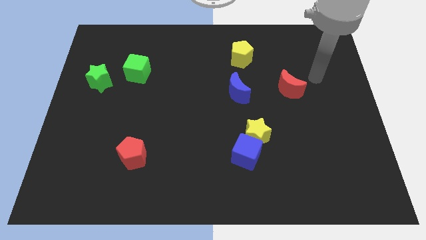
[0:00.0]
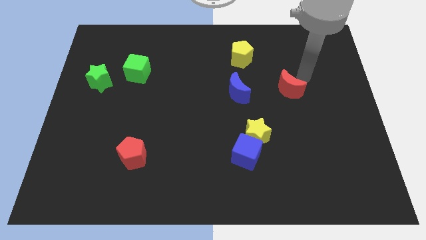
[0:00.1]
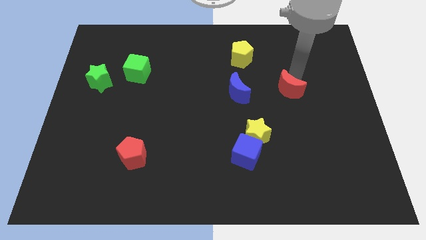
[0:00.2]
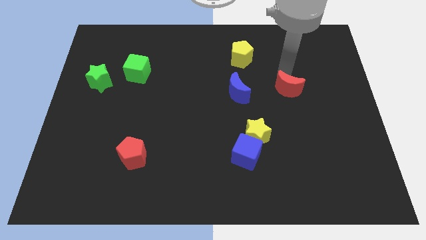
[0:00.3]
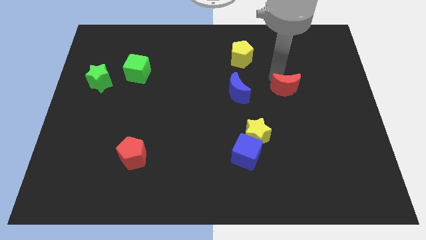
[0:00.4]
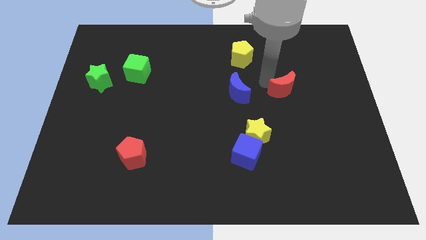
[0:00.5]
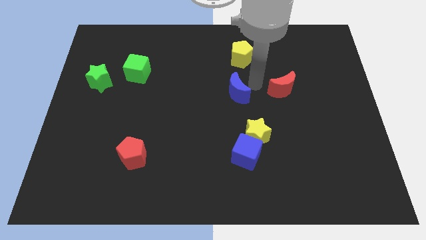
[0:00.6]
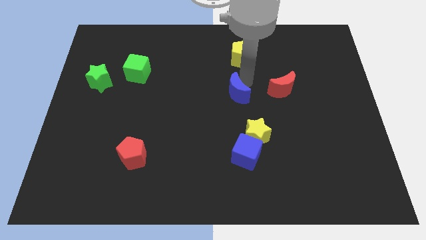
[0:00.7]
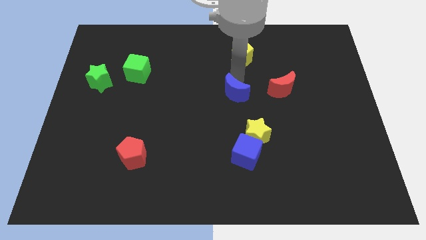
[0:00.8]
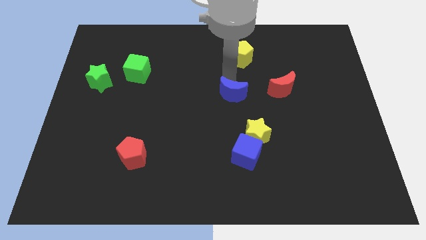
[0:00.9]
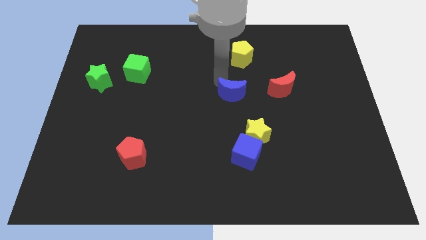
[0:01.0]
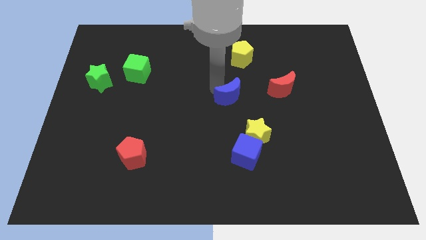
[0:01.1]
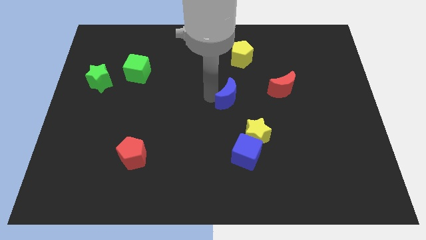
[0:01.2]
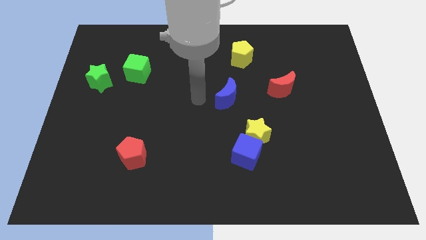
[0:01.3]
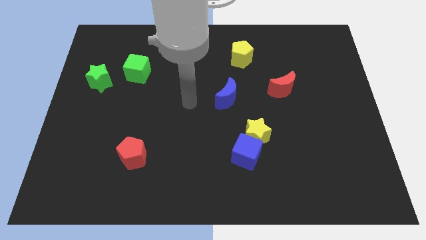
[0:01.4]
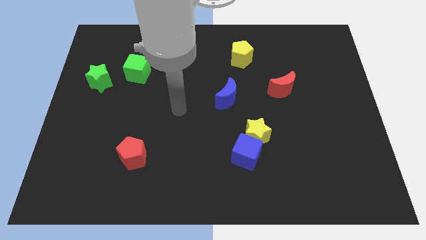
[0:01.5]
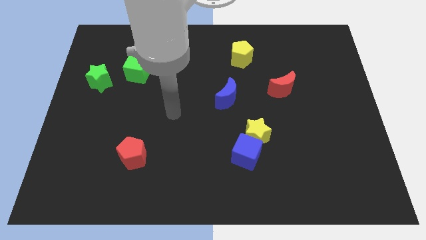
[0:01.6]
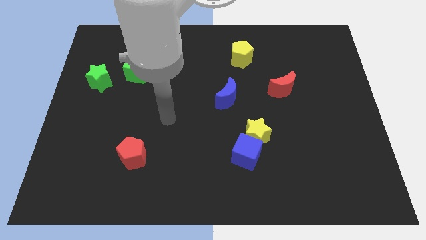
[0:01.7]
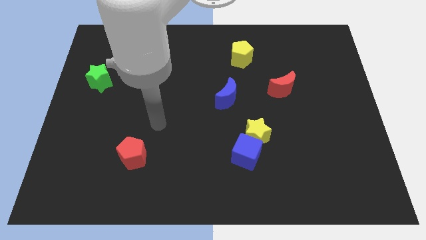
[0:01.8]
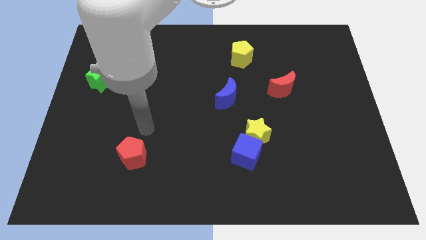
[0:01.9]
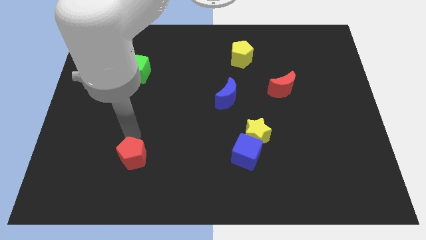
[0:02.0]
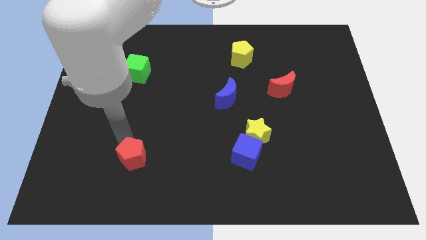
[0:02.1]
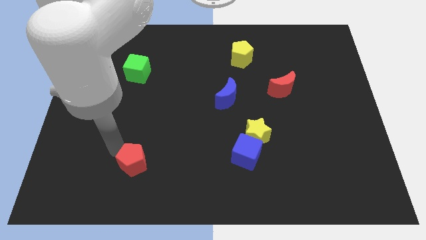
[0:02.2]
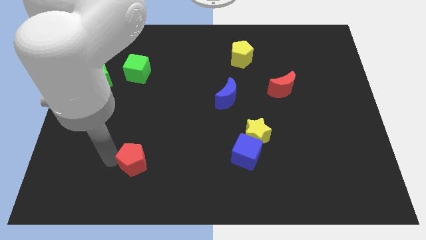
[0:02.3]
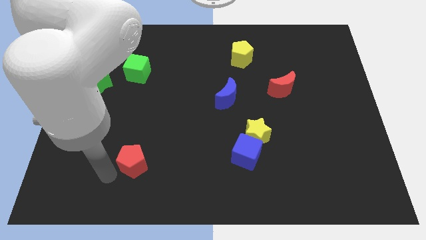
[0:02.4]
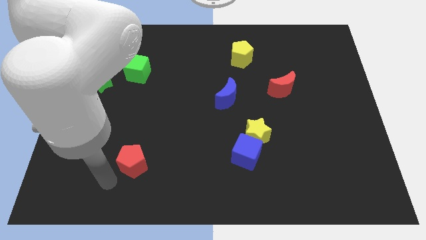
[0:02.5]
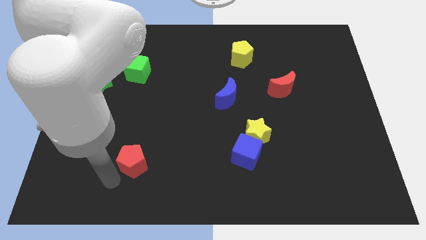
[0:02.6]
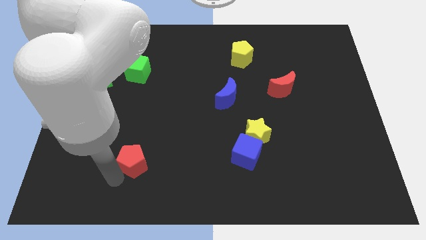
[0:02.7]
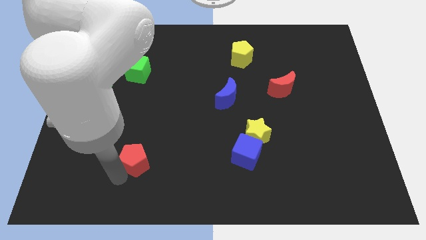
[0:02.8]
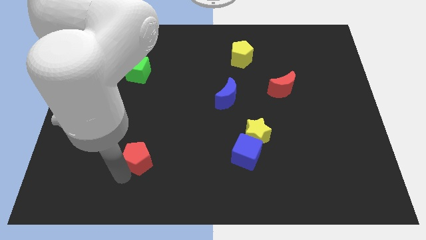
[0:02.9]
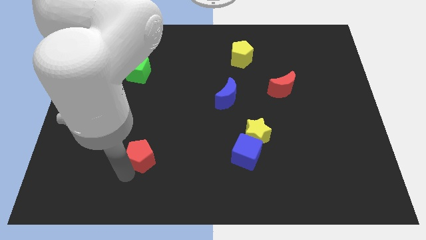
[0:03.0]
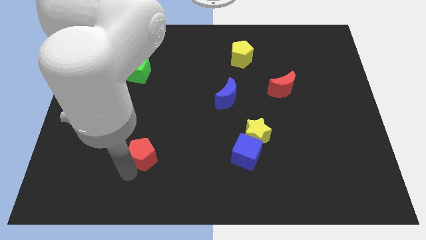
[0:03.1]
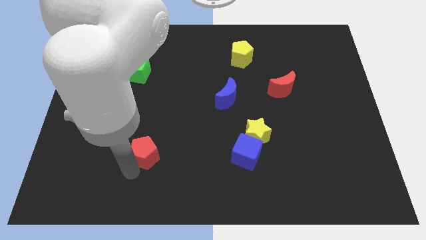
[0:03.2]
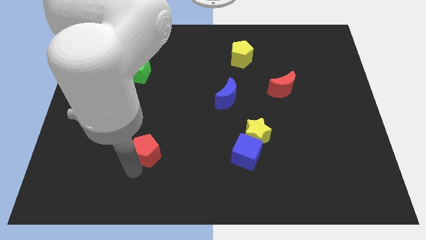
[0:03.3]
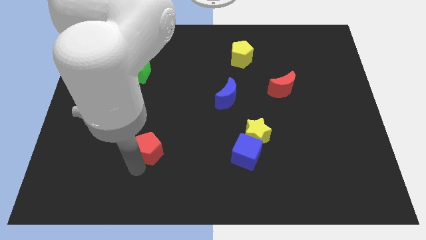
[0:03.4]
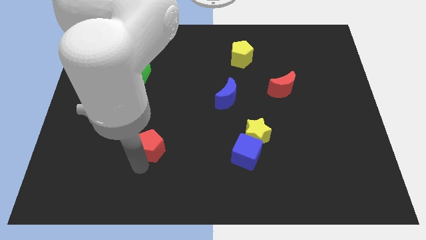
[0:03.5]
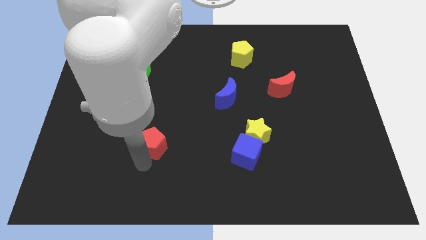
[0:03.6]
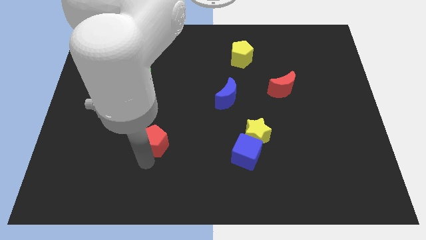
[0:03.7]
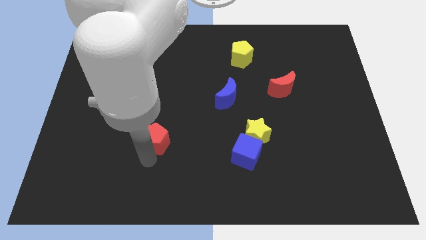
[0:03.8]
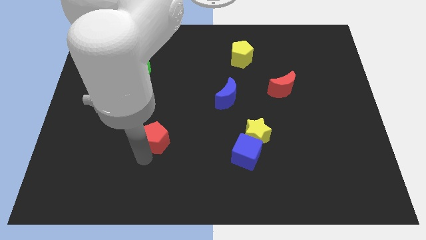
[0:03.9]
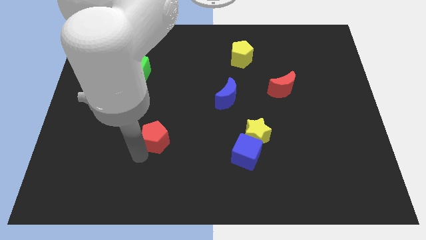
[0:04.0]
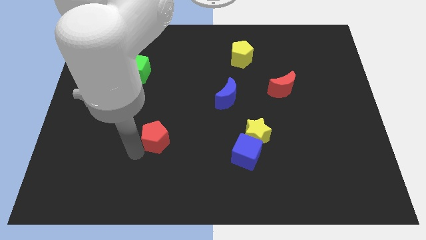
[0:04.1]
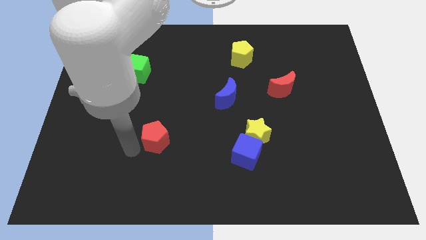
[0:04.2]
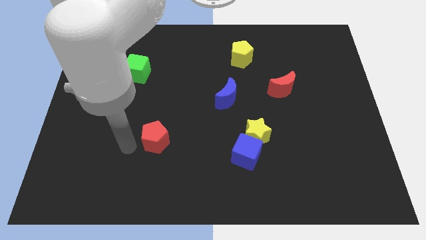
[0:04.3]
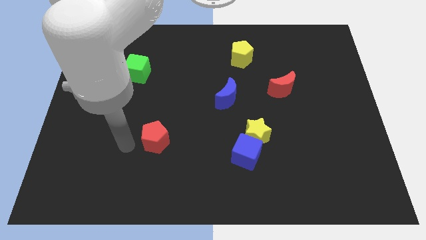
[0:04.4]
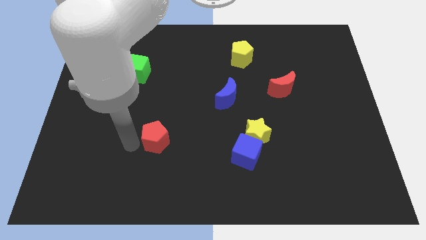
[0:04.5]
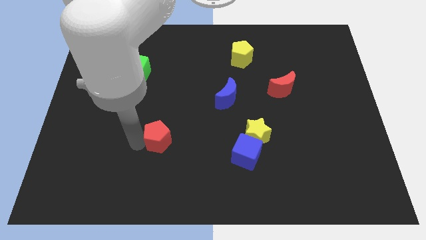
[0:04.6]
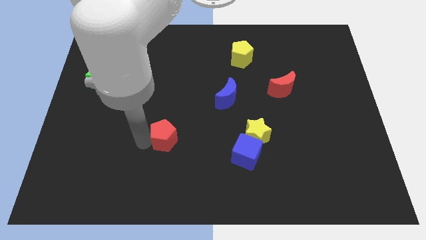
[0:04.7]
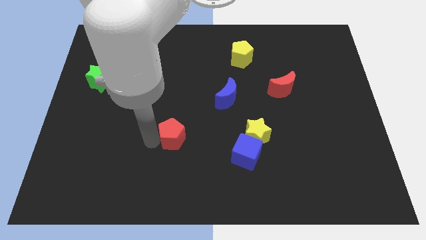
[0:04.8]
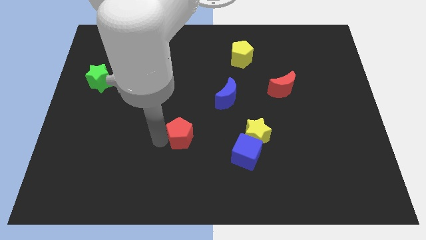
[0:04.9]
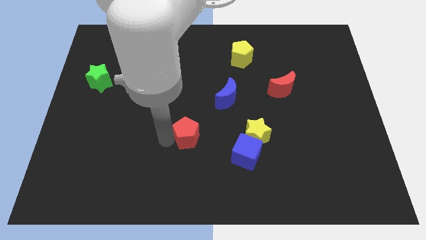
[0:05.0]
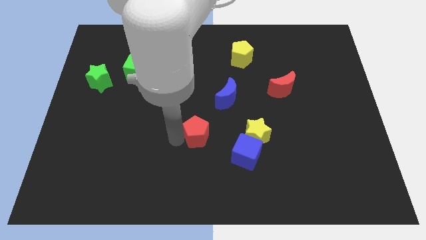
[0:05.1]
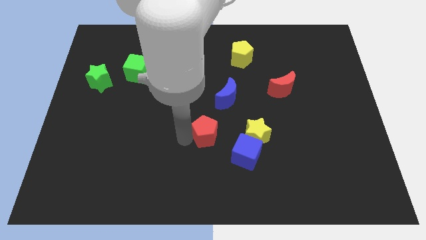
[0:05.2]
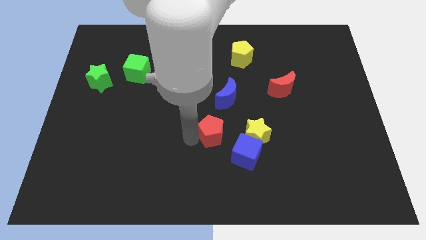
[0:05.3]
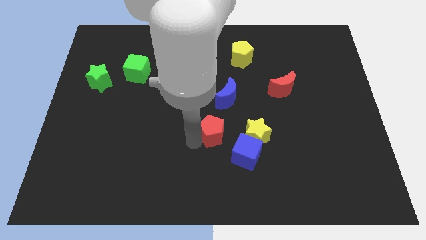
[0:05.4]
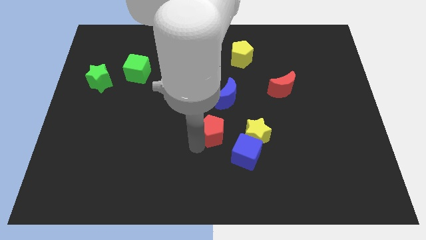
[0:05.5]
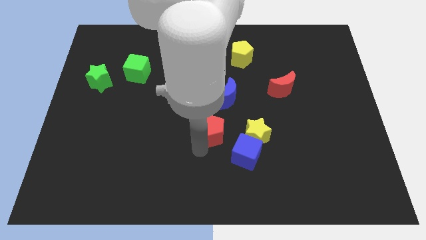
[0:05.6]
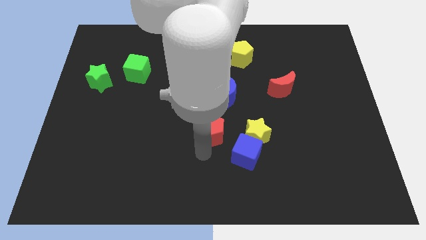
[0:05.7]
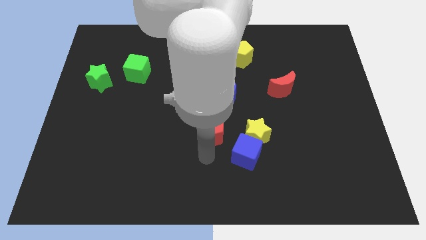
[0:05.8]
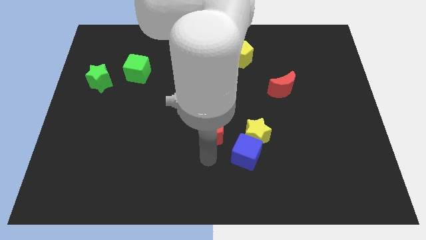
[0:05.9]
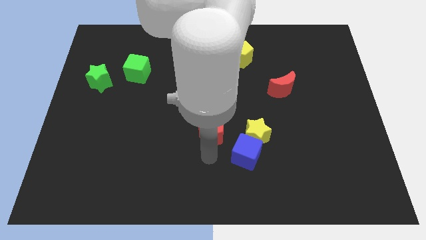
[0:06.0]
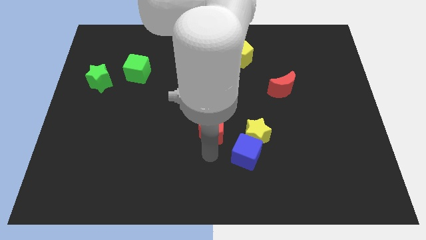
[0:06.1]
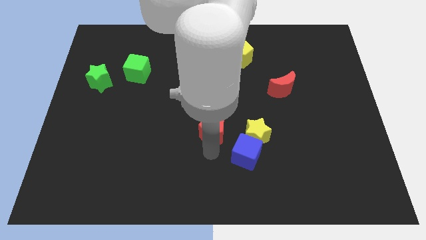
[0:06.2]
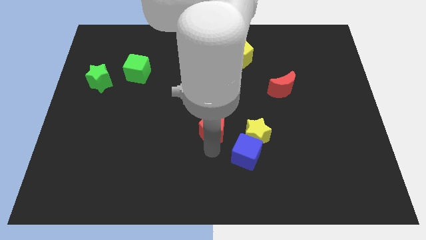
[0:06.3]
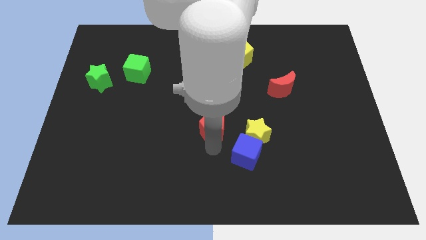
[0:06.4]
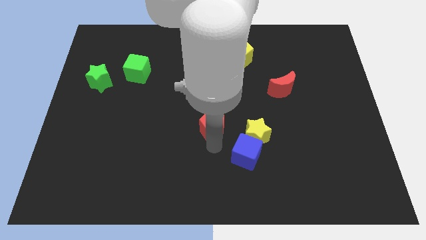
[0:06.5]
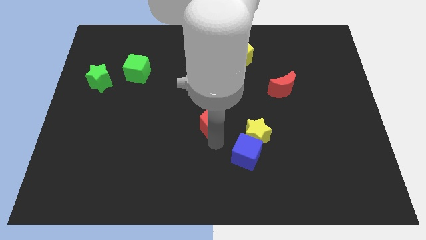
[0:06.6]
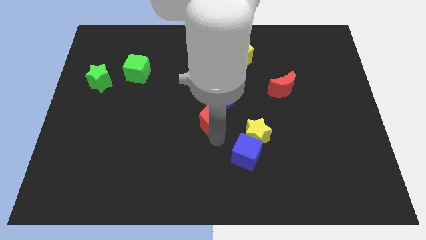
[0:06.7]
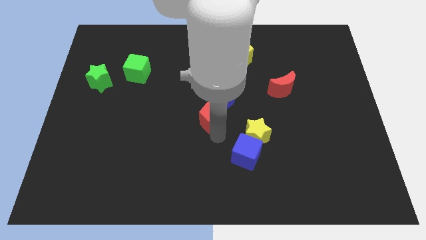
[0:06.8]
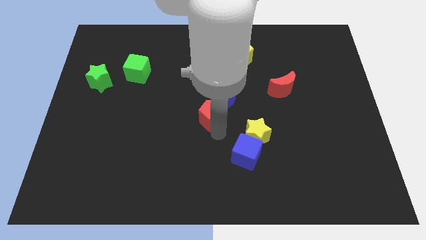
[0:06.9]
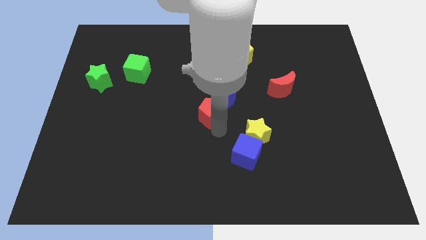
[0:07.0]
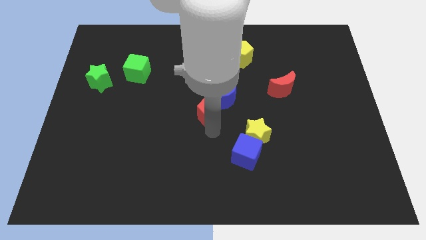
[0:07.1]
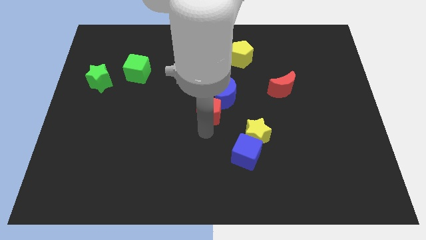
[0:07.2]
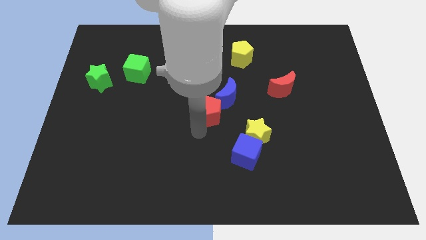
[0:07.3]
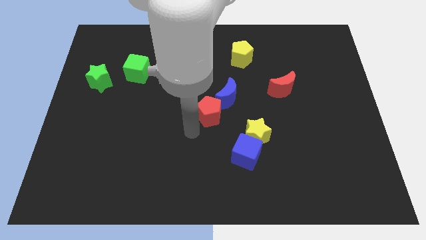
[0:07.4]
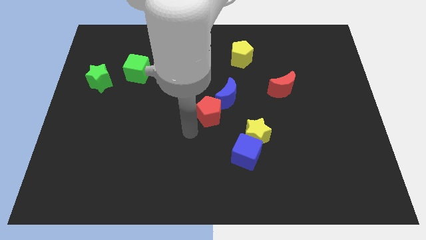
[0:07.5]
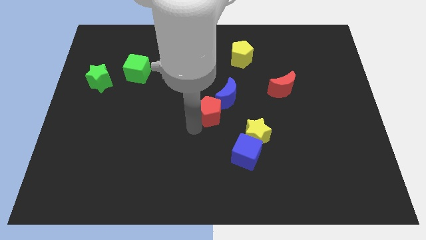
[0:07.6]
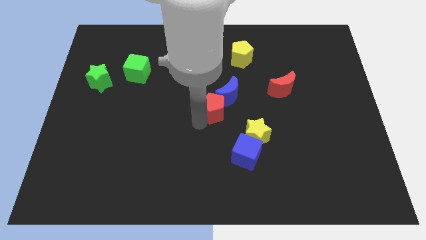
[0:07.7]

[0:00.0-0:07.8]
slide the red pentagon close to the blue moon
